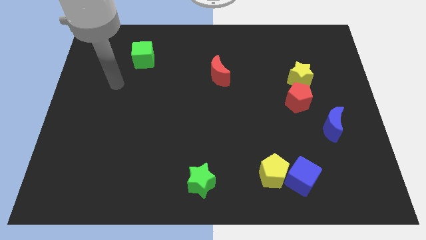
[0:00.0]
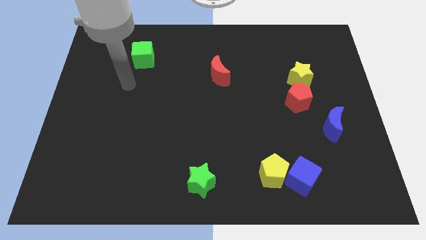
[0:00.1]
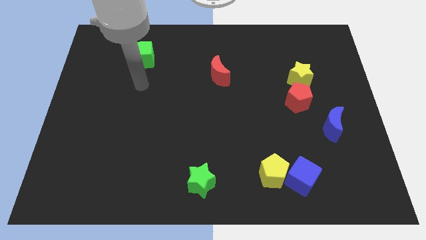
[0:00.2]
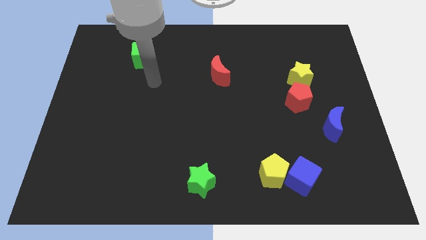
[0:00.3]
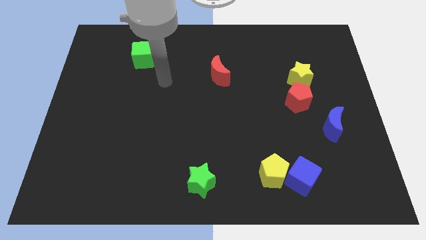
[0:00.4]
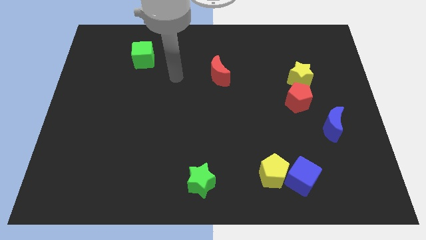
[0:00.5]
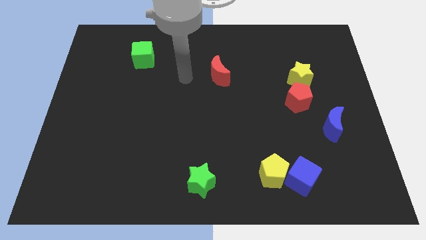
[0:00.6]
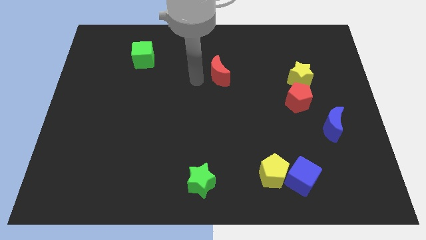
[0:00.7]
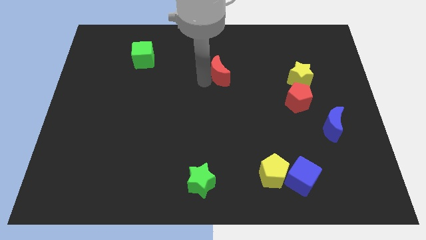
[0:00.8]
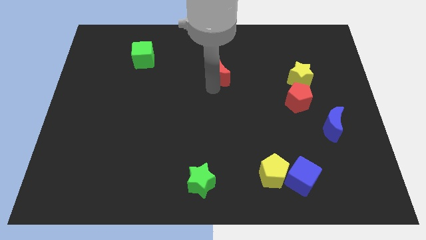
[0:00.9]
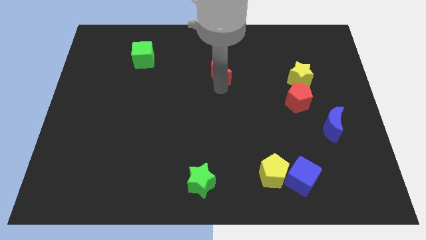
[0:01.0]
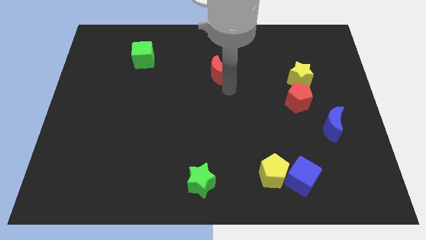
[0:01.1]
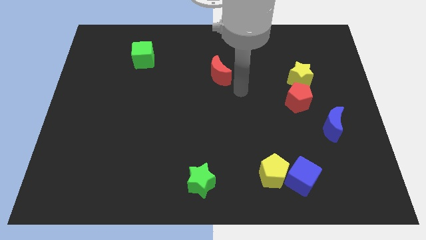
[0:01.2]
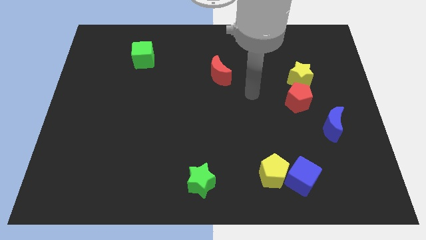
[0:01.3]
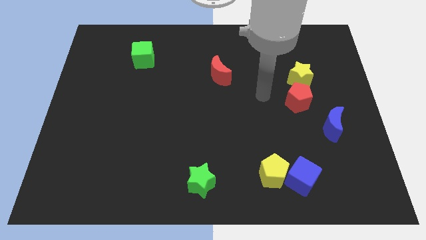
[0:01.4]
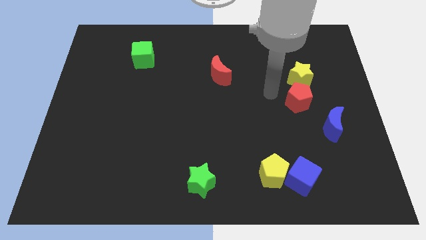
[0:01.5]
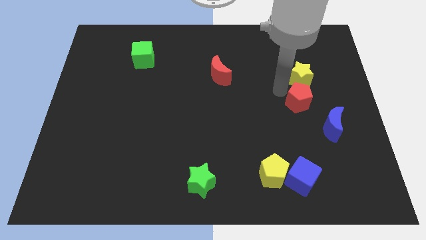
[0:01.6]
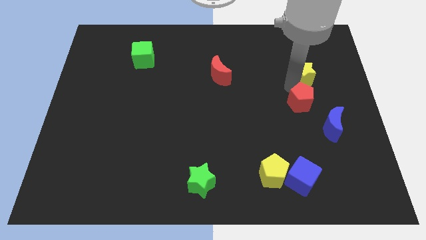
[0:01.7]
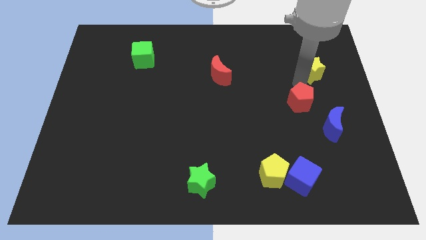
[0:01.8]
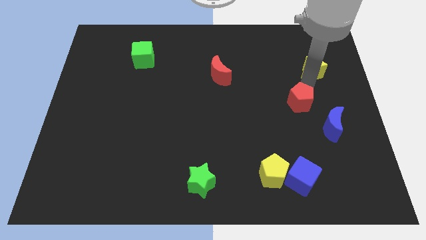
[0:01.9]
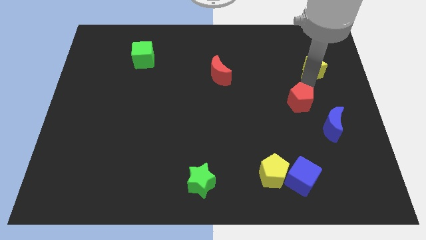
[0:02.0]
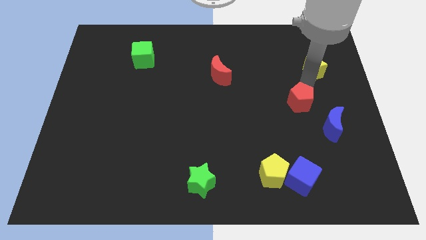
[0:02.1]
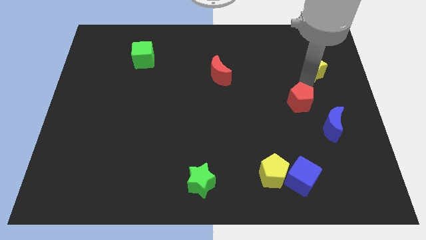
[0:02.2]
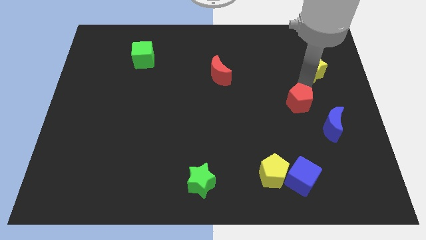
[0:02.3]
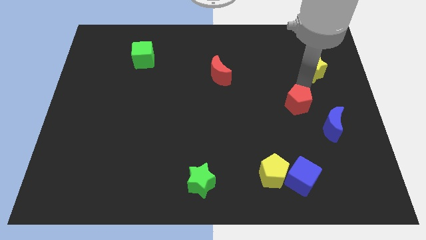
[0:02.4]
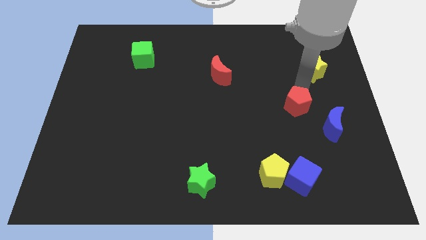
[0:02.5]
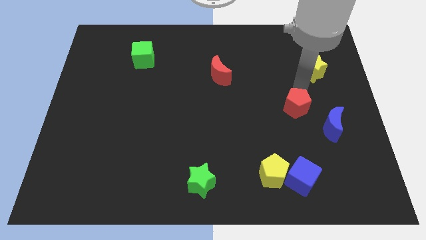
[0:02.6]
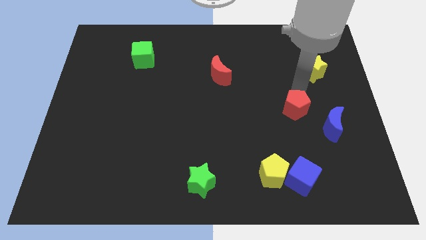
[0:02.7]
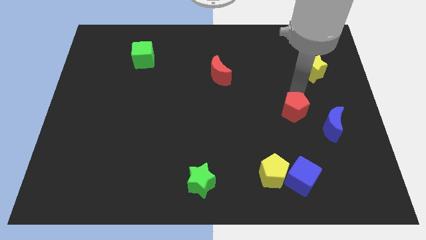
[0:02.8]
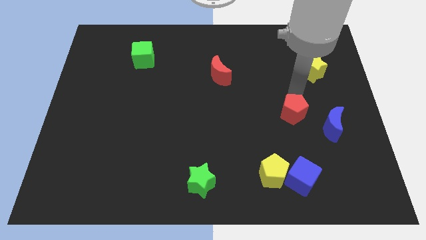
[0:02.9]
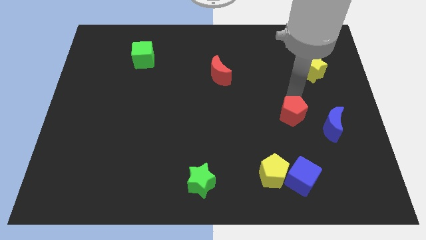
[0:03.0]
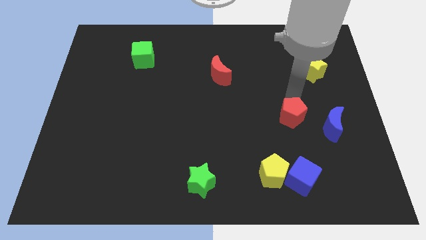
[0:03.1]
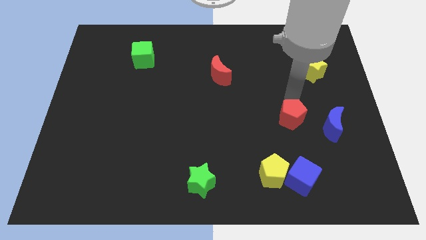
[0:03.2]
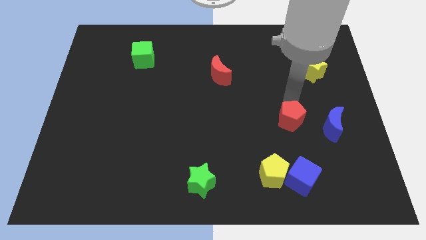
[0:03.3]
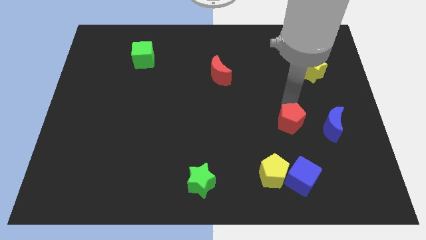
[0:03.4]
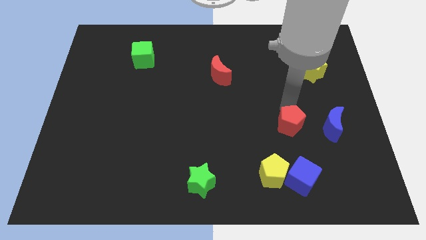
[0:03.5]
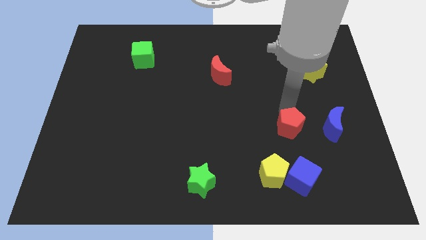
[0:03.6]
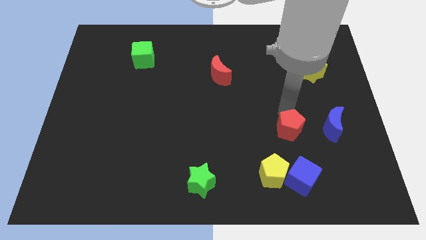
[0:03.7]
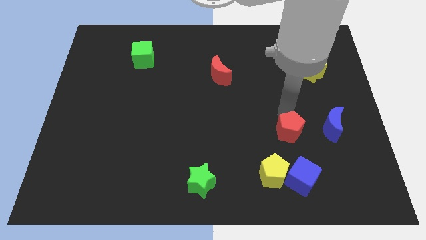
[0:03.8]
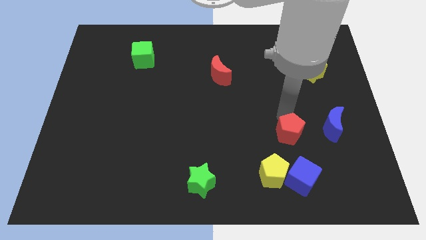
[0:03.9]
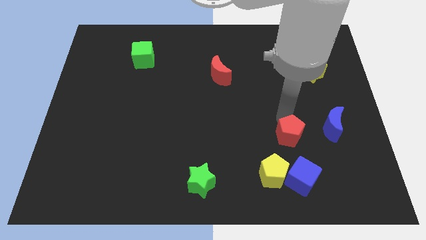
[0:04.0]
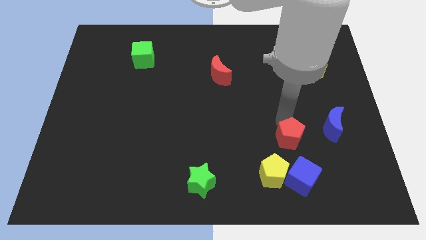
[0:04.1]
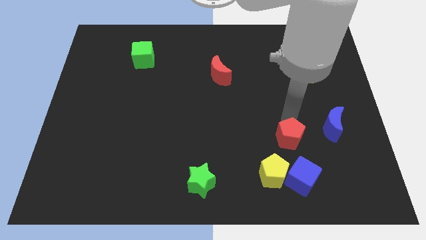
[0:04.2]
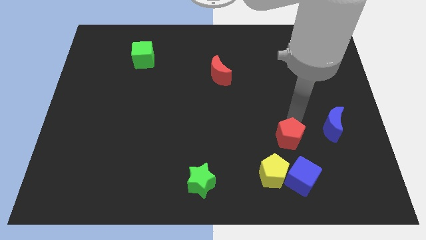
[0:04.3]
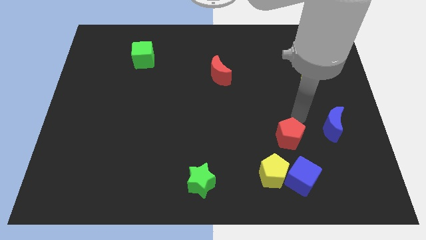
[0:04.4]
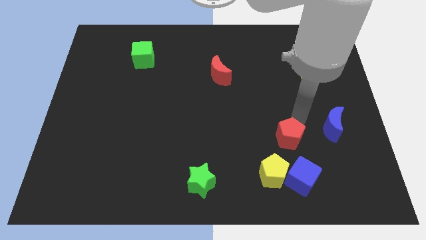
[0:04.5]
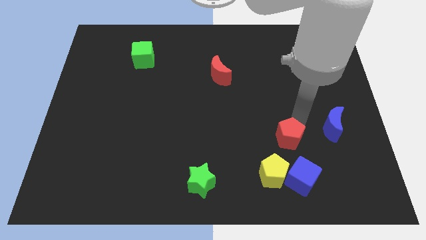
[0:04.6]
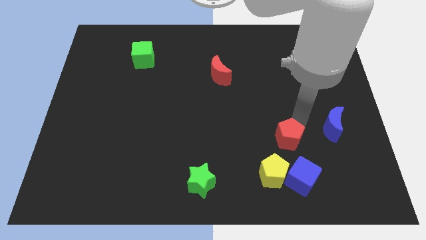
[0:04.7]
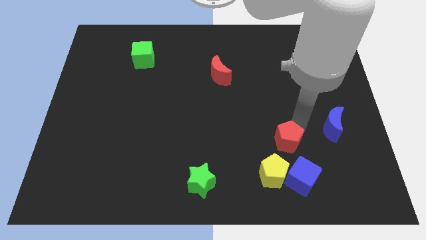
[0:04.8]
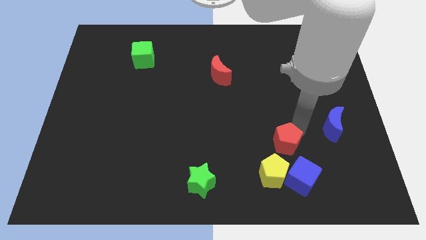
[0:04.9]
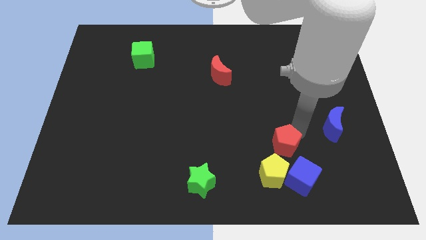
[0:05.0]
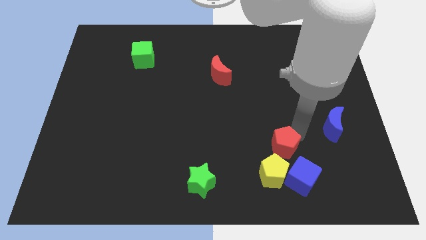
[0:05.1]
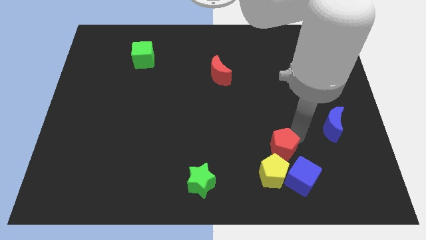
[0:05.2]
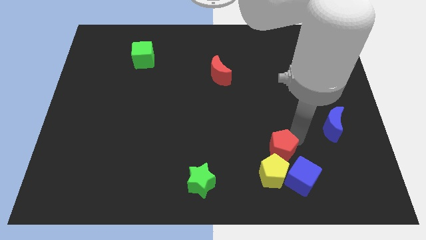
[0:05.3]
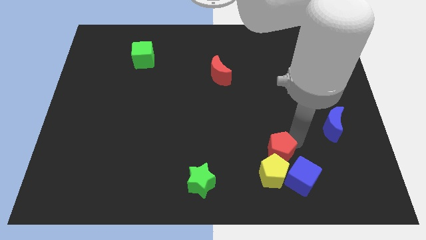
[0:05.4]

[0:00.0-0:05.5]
push the red pentagon to the yellow pentagon

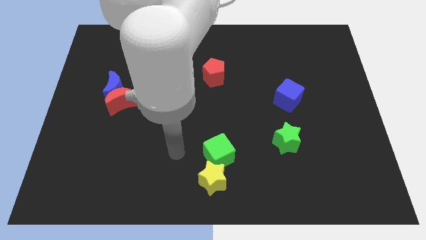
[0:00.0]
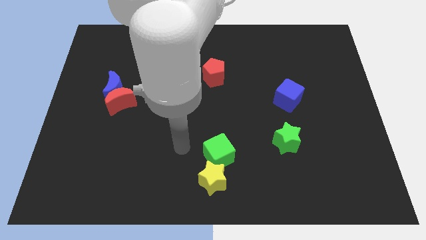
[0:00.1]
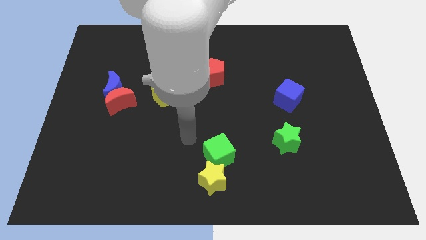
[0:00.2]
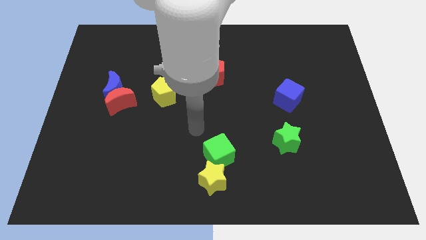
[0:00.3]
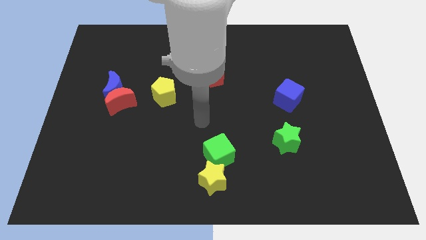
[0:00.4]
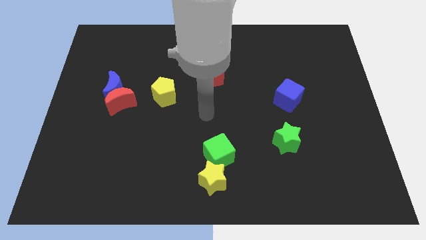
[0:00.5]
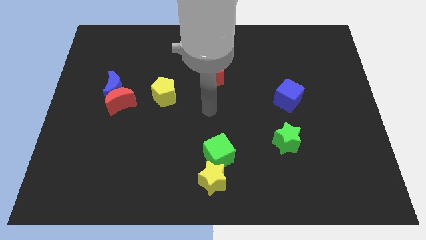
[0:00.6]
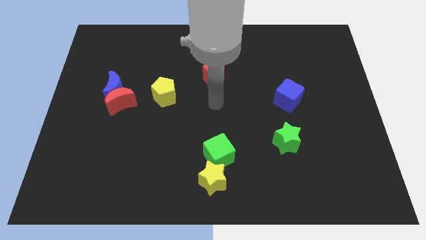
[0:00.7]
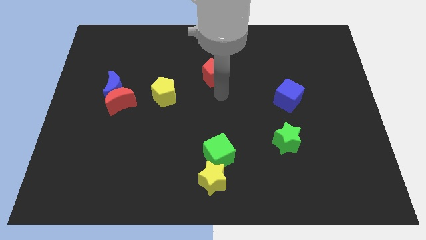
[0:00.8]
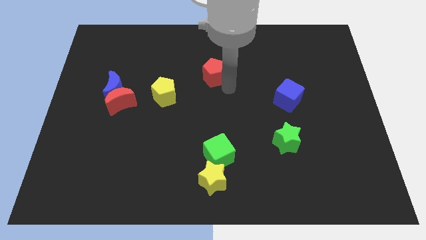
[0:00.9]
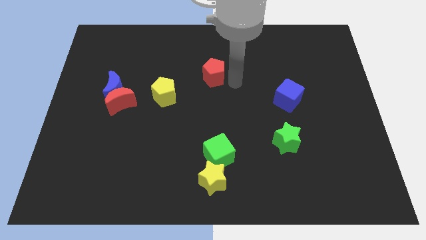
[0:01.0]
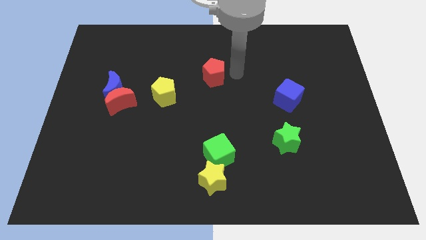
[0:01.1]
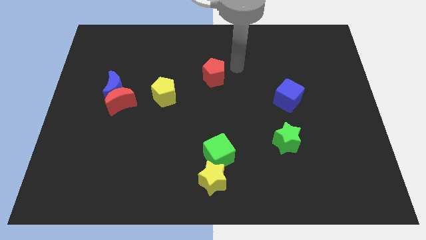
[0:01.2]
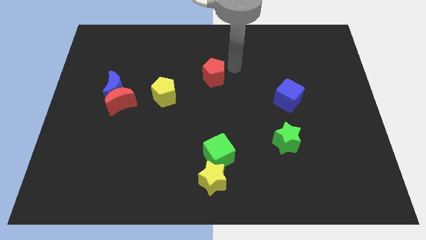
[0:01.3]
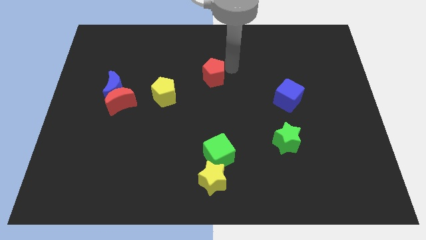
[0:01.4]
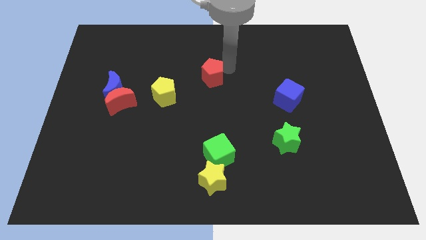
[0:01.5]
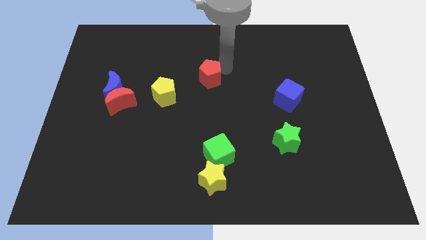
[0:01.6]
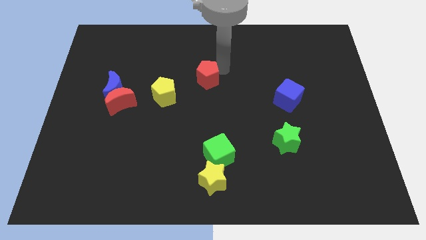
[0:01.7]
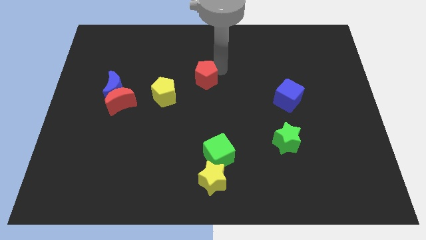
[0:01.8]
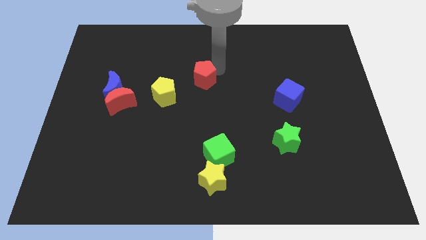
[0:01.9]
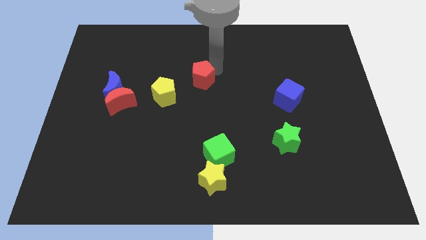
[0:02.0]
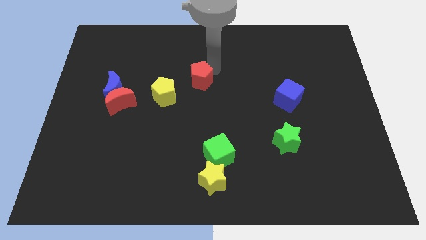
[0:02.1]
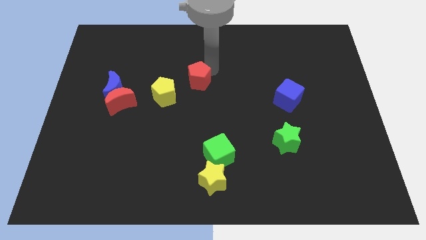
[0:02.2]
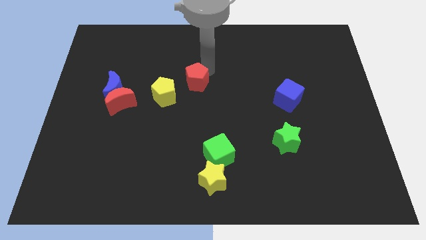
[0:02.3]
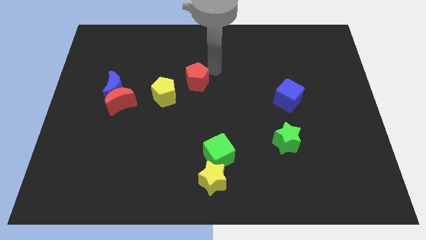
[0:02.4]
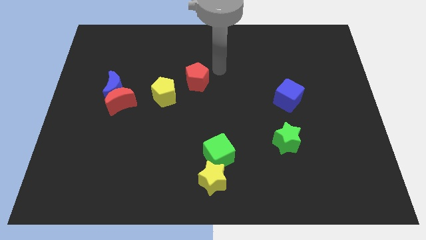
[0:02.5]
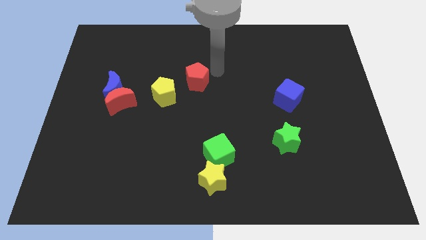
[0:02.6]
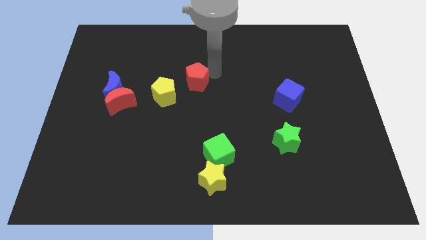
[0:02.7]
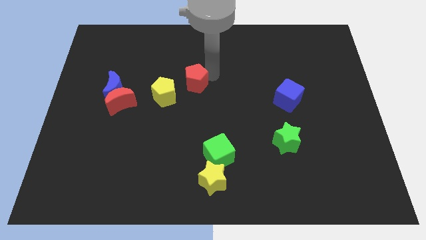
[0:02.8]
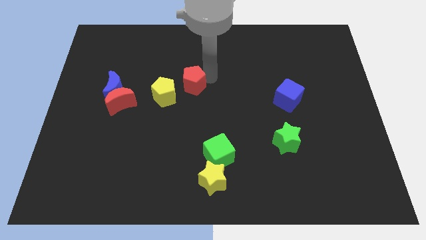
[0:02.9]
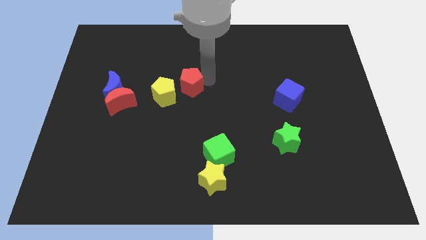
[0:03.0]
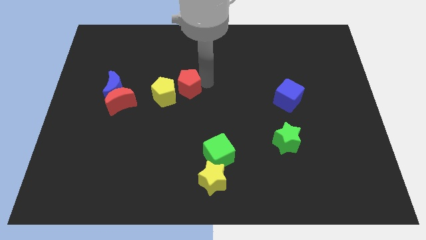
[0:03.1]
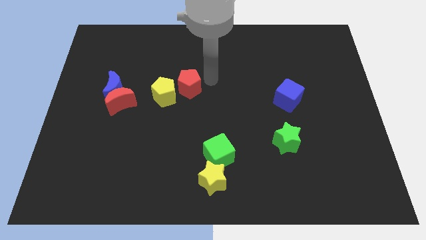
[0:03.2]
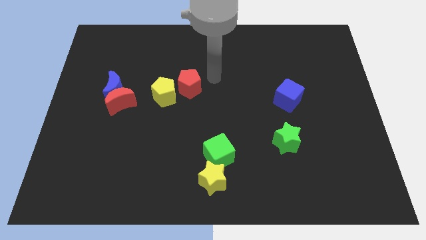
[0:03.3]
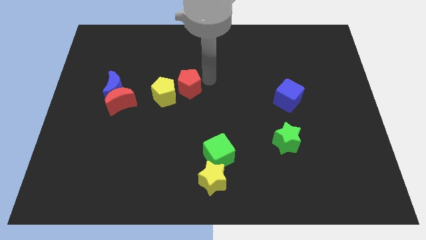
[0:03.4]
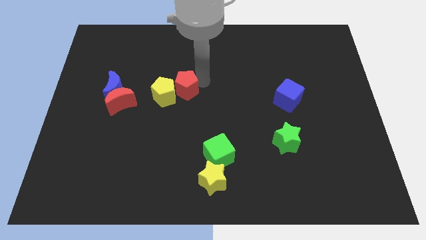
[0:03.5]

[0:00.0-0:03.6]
move the red pentagon to the yellow pentagon
